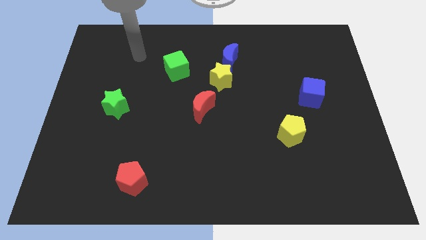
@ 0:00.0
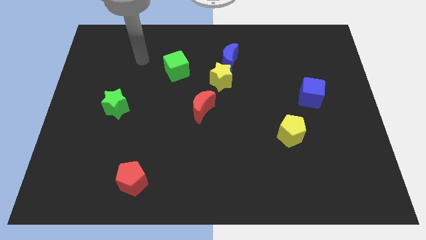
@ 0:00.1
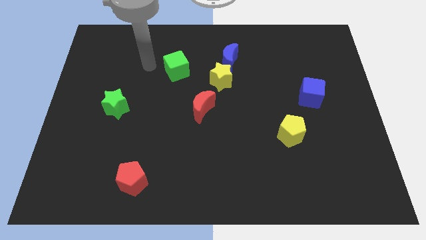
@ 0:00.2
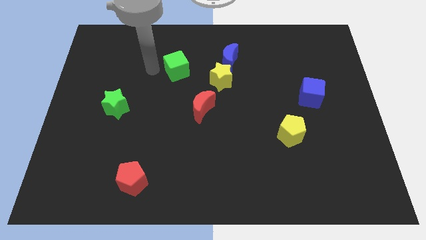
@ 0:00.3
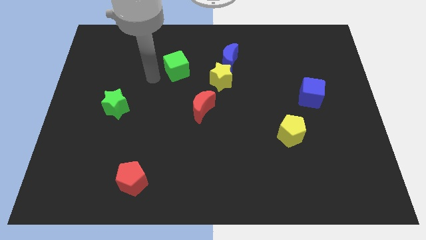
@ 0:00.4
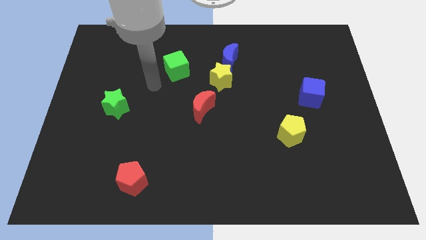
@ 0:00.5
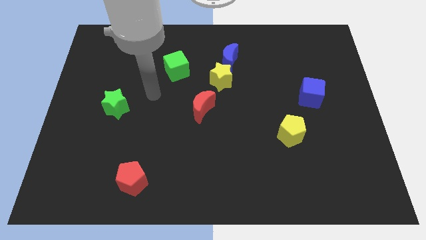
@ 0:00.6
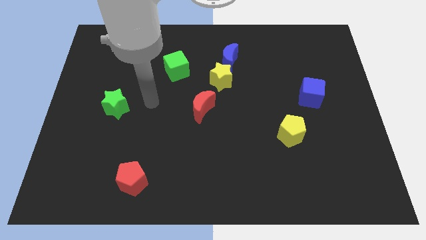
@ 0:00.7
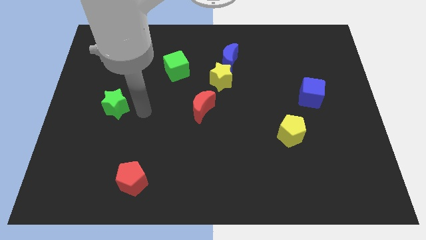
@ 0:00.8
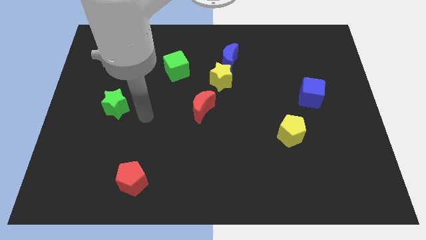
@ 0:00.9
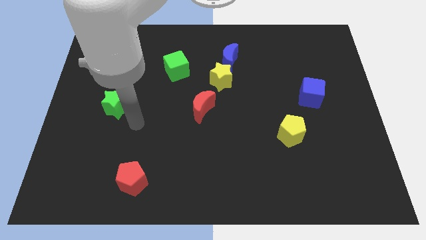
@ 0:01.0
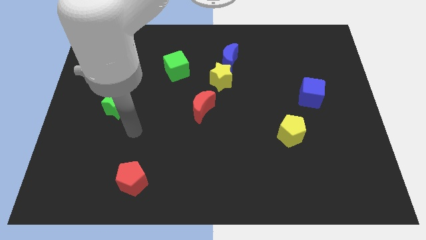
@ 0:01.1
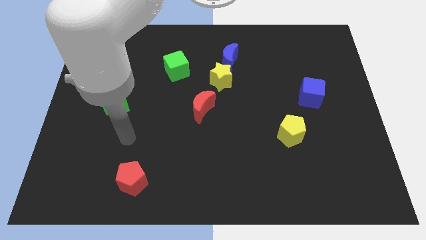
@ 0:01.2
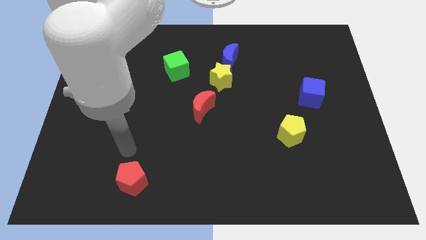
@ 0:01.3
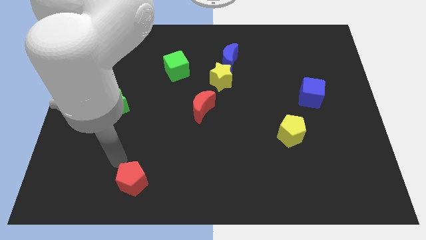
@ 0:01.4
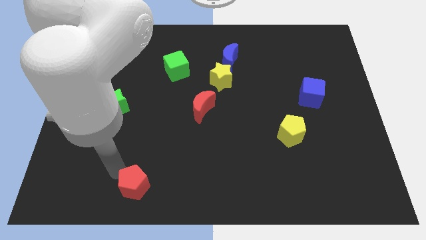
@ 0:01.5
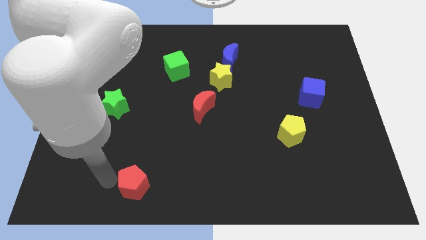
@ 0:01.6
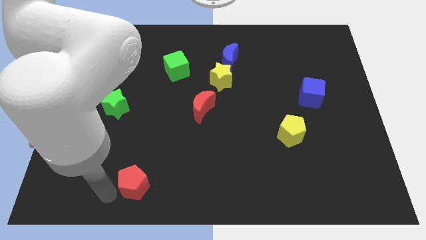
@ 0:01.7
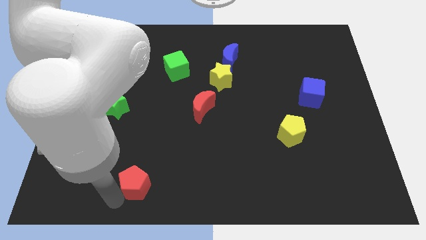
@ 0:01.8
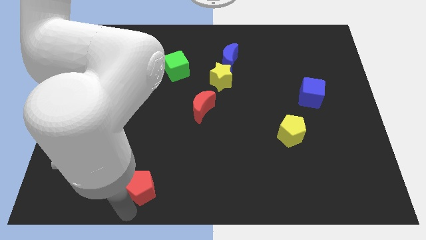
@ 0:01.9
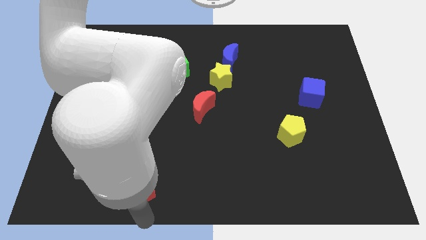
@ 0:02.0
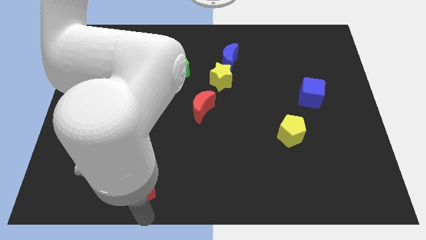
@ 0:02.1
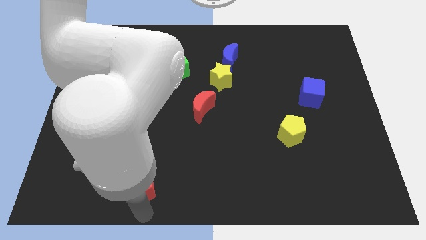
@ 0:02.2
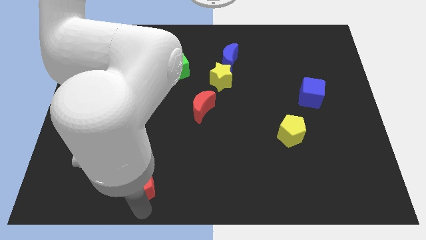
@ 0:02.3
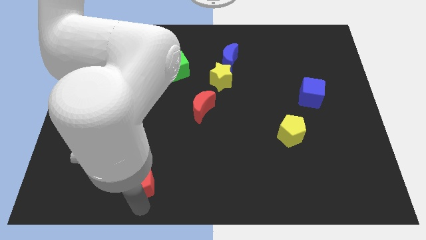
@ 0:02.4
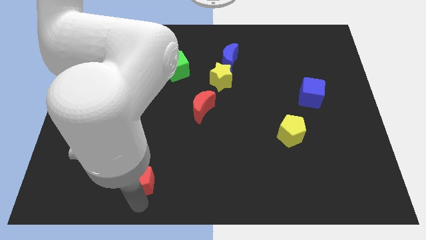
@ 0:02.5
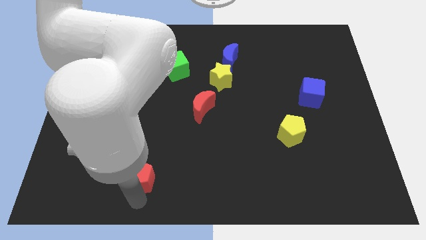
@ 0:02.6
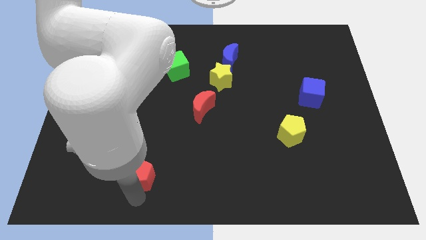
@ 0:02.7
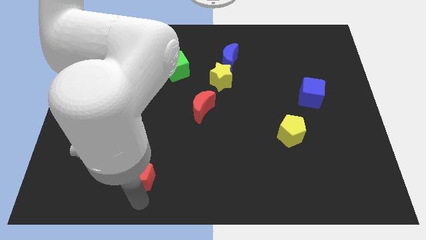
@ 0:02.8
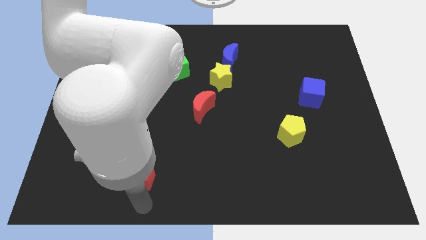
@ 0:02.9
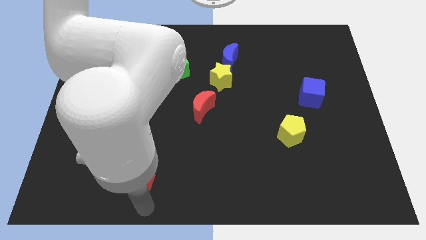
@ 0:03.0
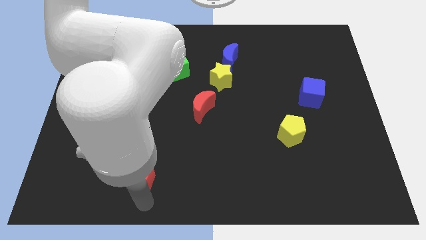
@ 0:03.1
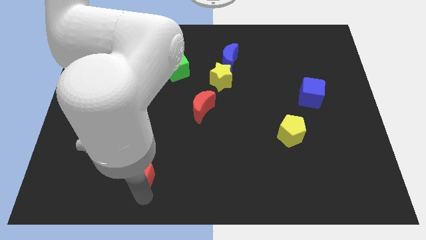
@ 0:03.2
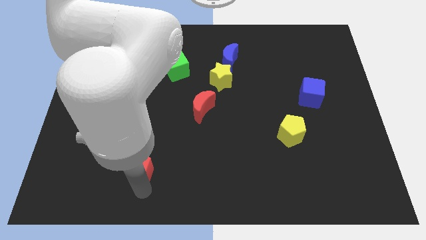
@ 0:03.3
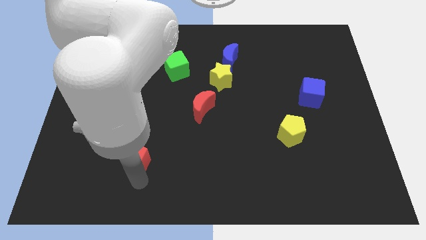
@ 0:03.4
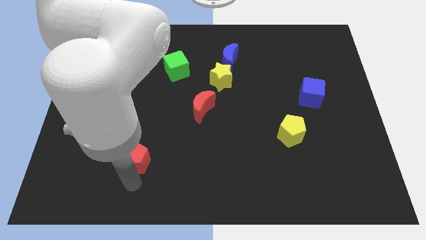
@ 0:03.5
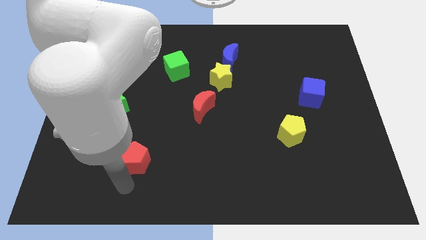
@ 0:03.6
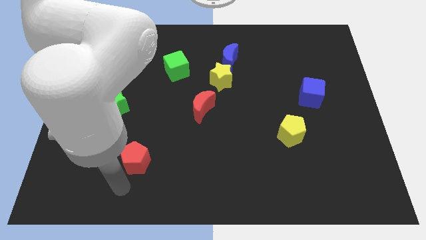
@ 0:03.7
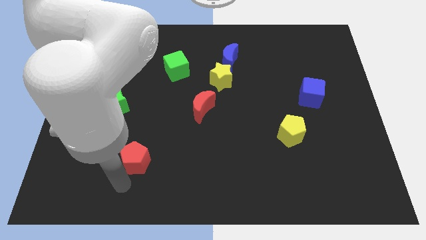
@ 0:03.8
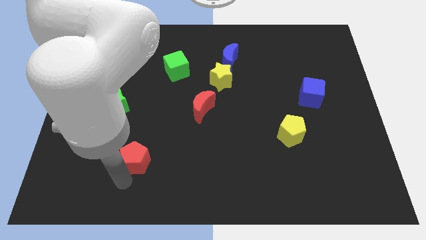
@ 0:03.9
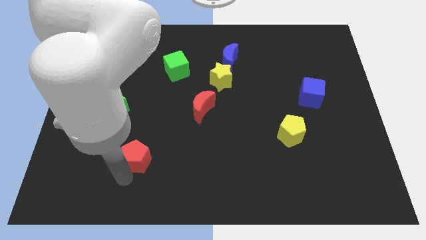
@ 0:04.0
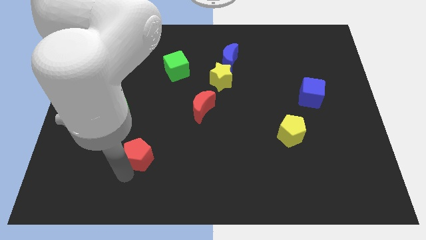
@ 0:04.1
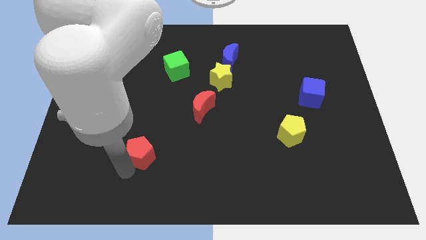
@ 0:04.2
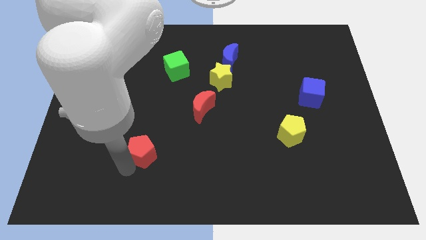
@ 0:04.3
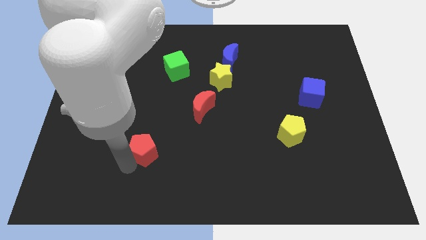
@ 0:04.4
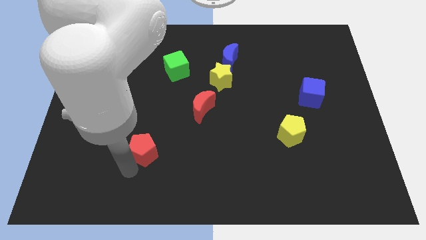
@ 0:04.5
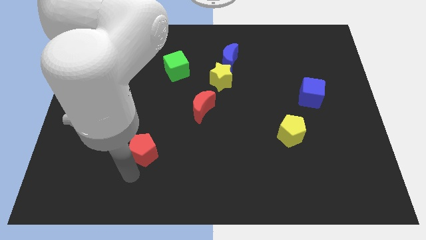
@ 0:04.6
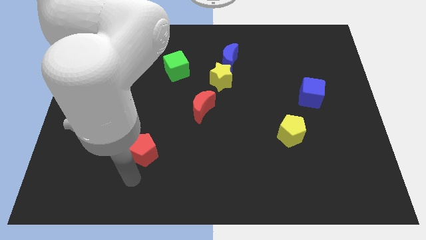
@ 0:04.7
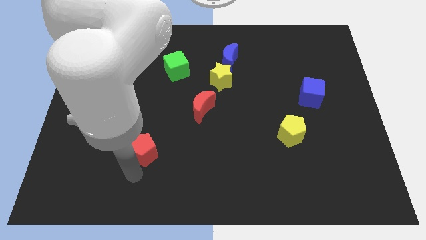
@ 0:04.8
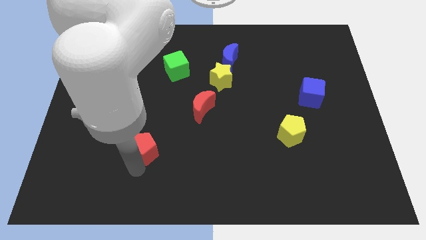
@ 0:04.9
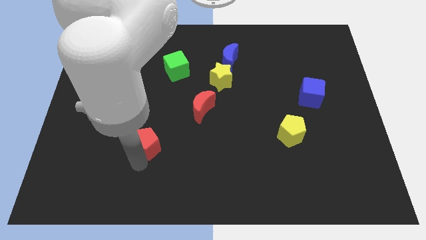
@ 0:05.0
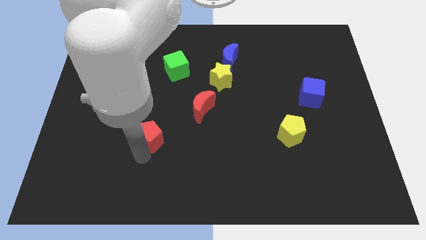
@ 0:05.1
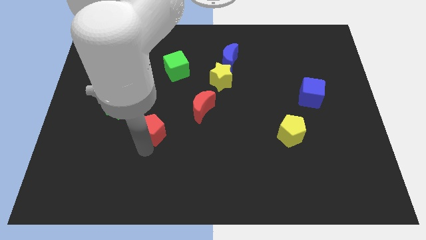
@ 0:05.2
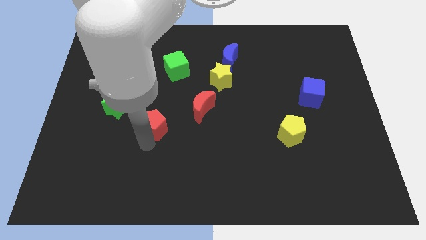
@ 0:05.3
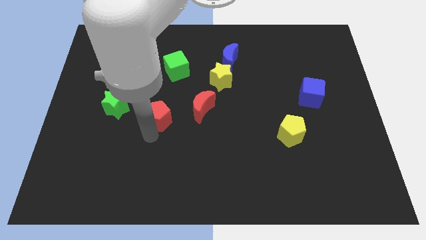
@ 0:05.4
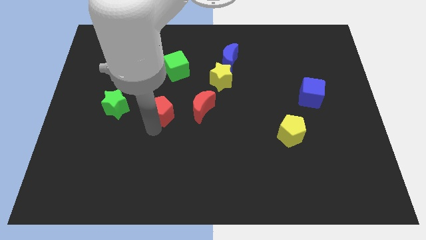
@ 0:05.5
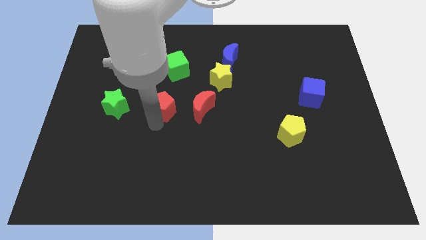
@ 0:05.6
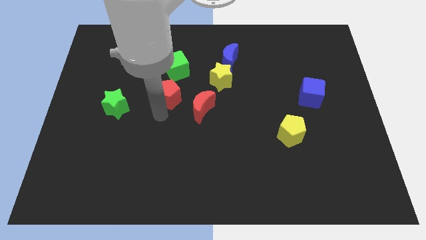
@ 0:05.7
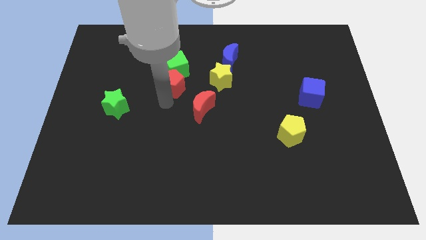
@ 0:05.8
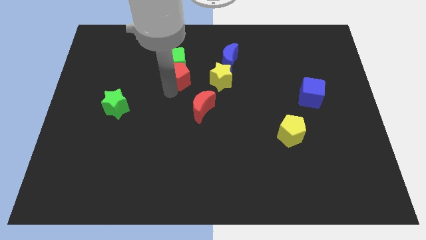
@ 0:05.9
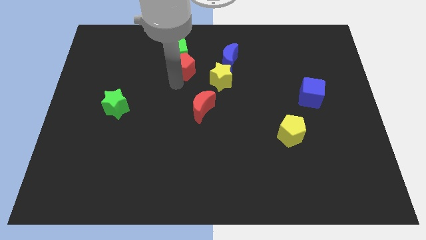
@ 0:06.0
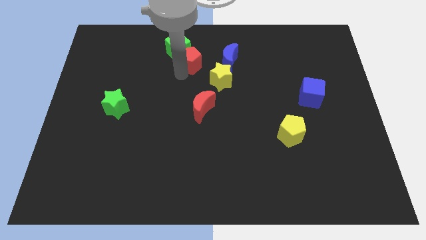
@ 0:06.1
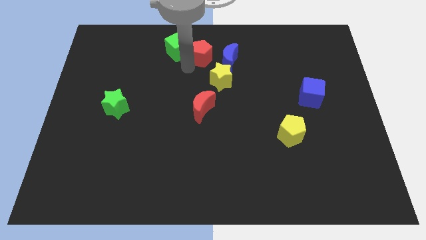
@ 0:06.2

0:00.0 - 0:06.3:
move the red pentagon to the top
